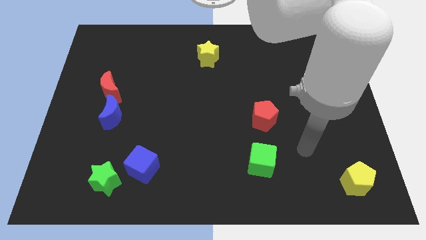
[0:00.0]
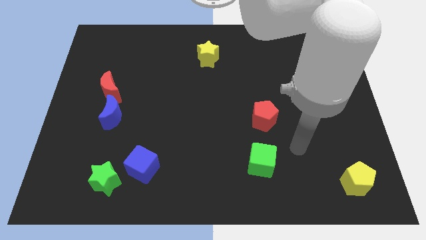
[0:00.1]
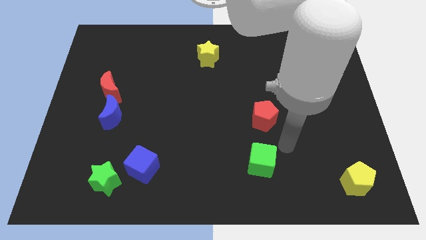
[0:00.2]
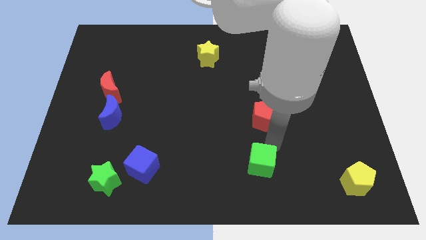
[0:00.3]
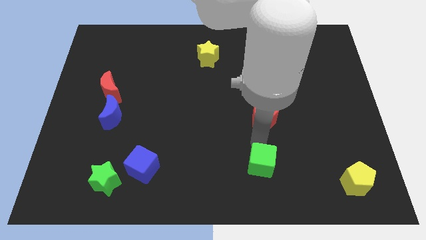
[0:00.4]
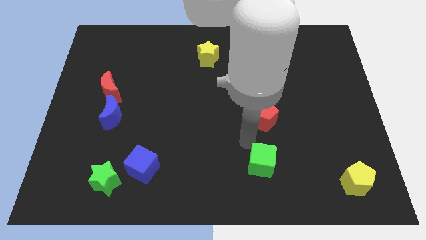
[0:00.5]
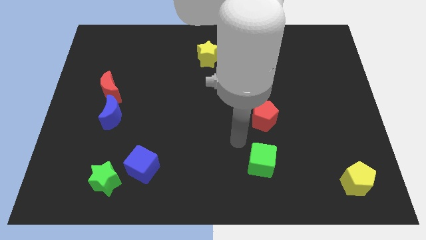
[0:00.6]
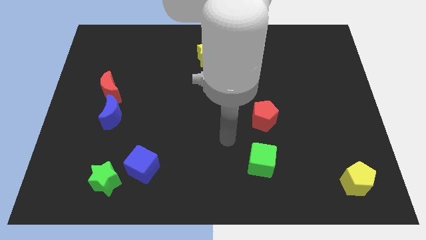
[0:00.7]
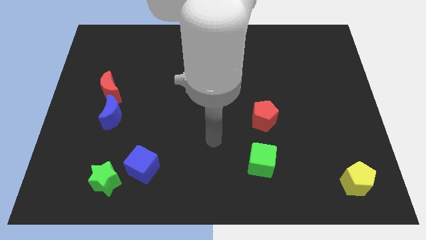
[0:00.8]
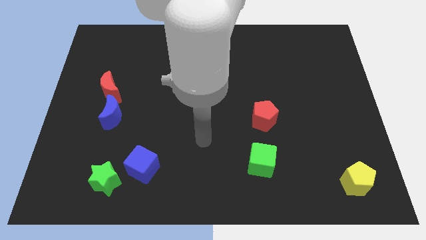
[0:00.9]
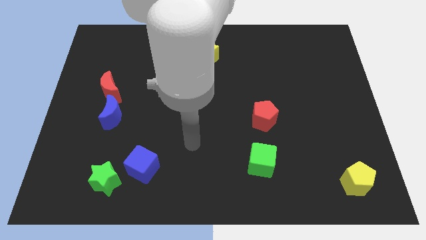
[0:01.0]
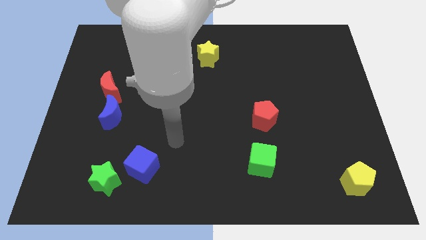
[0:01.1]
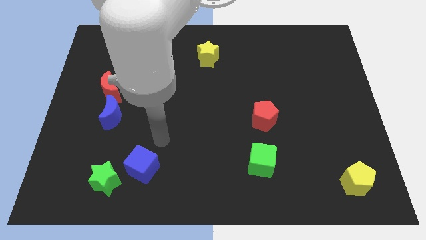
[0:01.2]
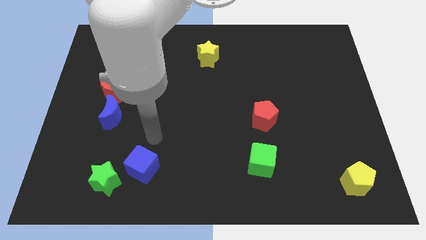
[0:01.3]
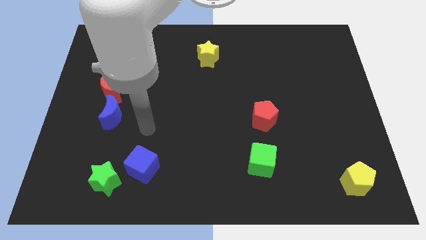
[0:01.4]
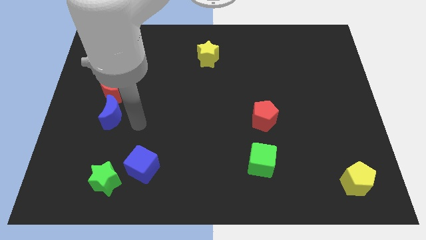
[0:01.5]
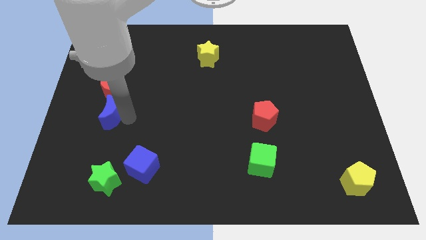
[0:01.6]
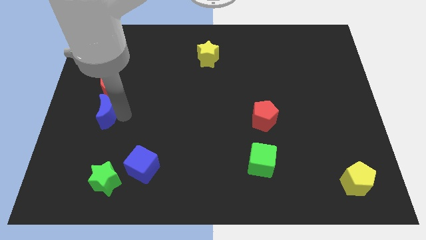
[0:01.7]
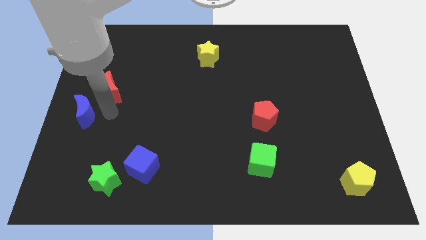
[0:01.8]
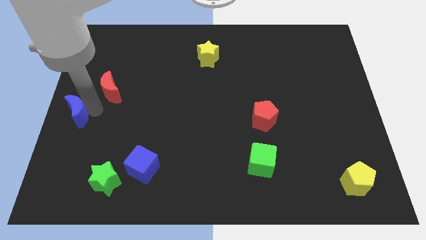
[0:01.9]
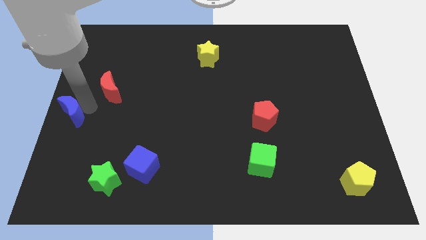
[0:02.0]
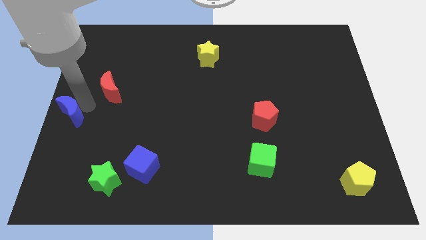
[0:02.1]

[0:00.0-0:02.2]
pull the red moon apart from the blue moon

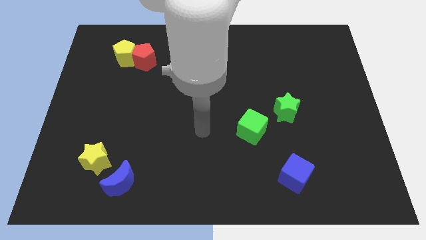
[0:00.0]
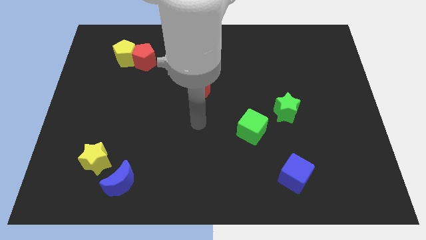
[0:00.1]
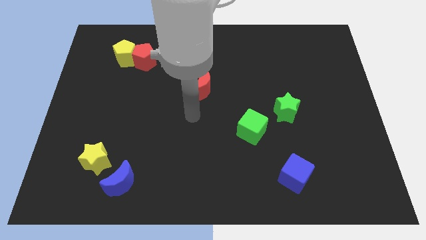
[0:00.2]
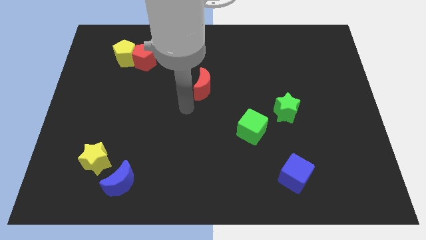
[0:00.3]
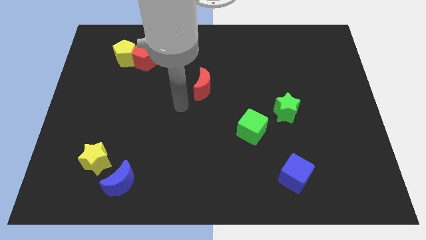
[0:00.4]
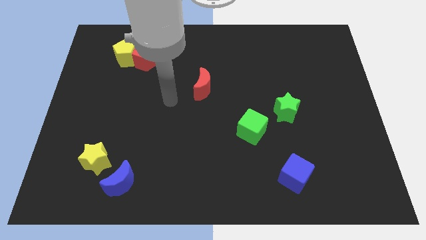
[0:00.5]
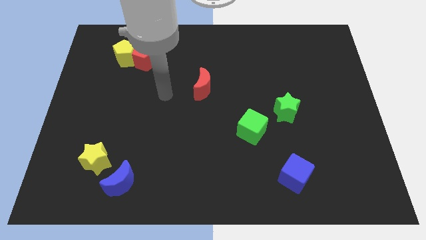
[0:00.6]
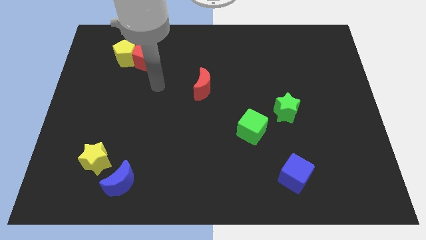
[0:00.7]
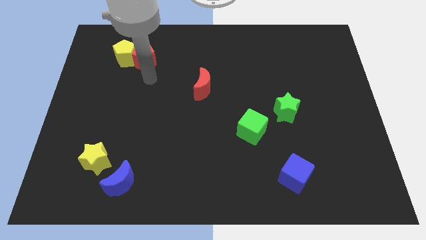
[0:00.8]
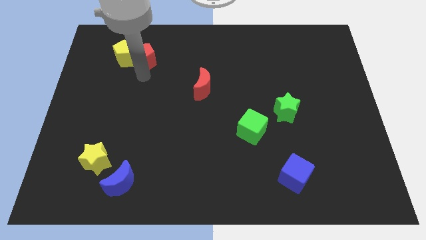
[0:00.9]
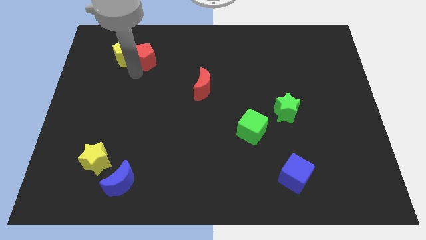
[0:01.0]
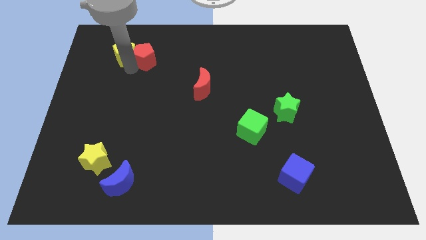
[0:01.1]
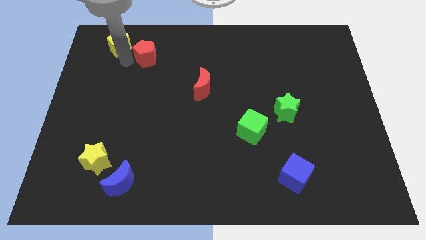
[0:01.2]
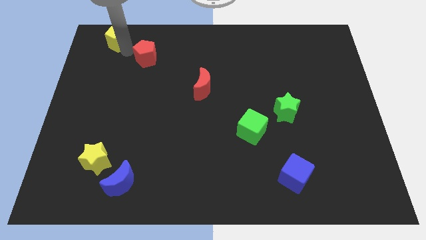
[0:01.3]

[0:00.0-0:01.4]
pull the red pentagon apart from the yellow pentagon

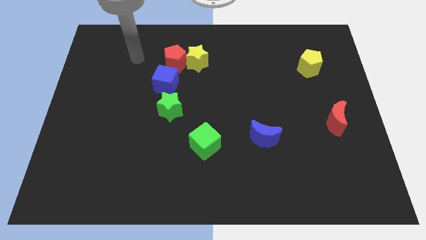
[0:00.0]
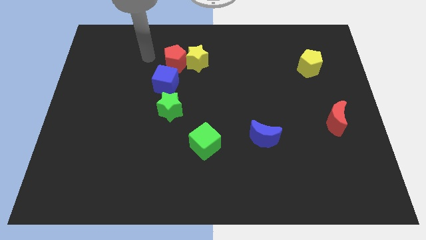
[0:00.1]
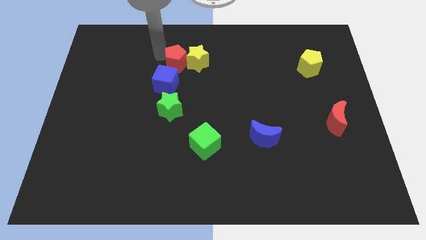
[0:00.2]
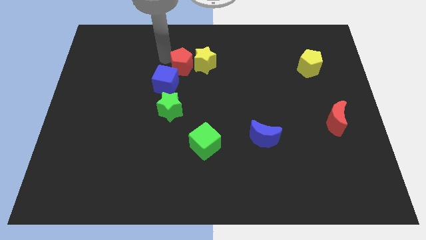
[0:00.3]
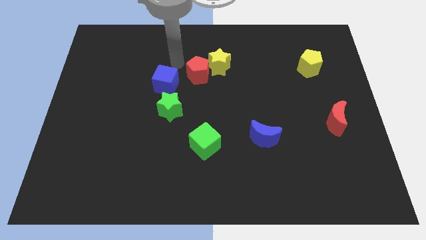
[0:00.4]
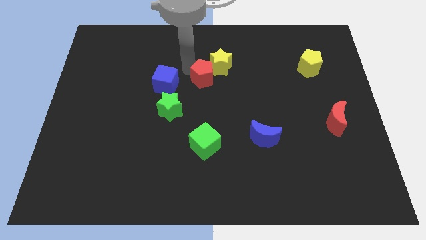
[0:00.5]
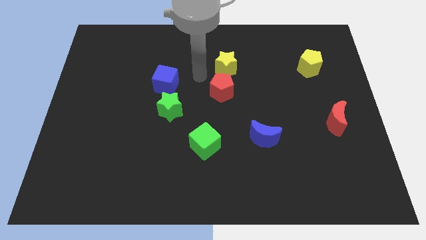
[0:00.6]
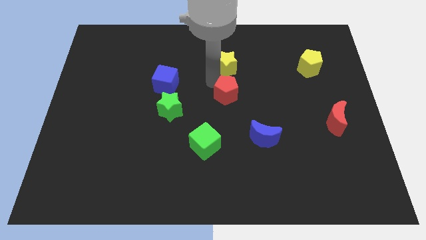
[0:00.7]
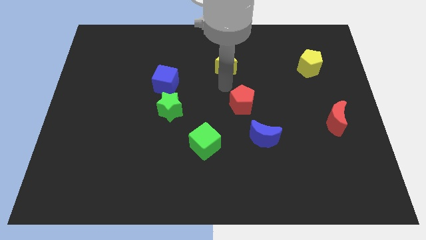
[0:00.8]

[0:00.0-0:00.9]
pull the yellow star apart from the red pentagon

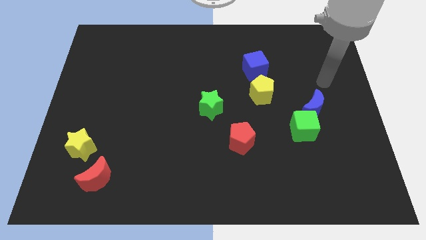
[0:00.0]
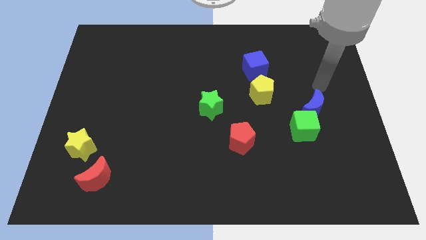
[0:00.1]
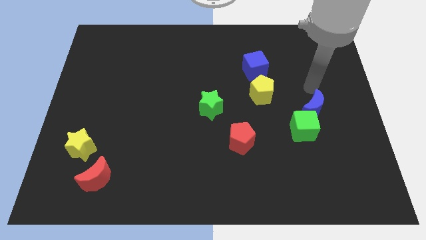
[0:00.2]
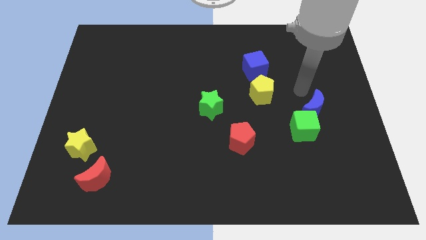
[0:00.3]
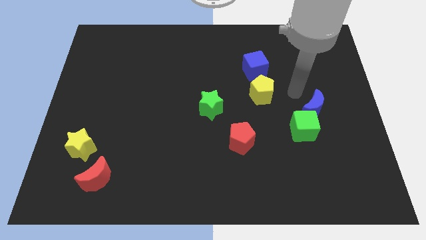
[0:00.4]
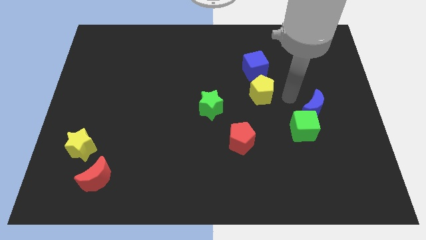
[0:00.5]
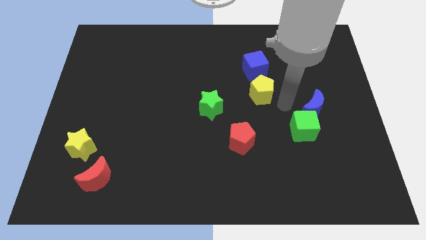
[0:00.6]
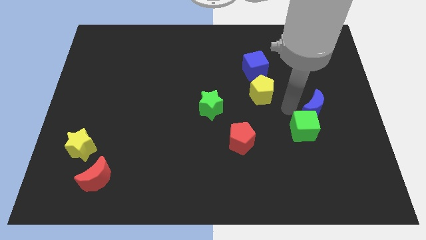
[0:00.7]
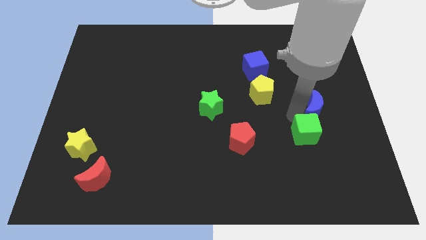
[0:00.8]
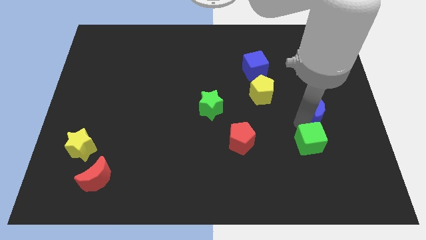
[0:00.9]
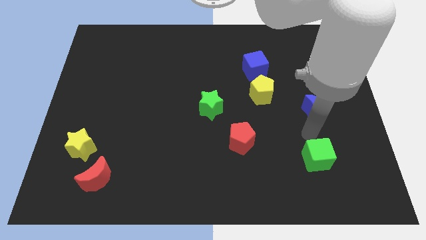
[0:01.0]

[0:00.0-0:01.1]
separate the blue moon from the green cube

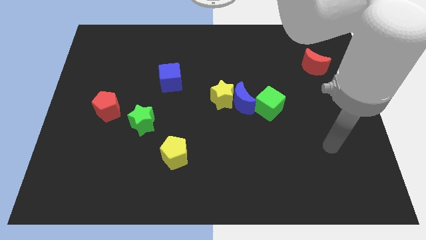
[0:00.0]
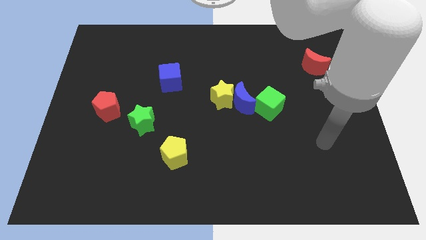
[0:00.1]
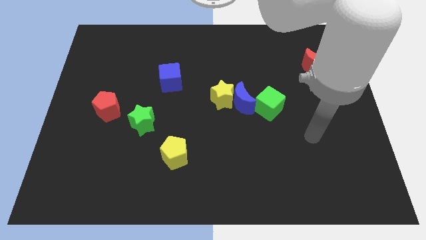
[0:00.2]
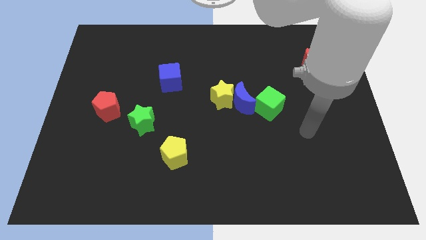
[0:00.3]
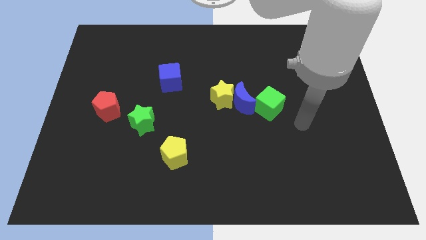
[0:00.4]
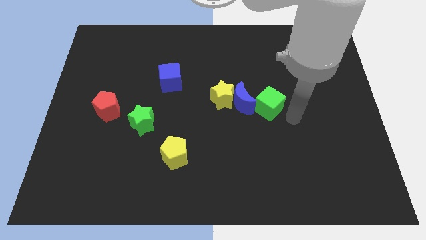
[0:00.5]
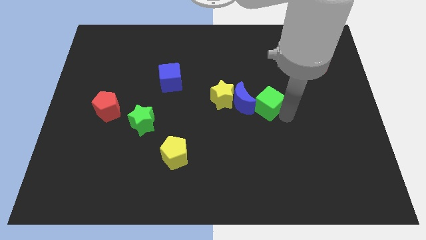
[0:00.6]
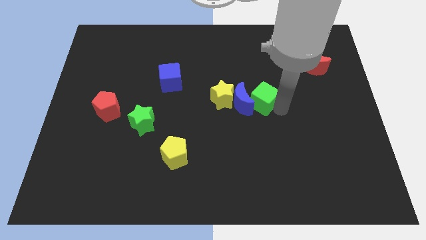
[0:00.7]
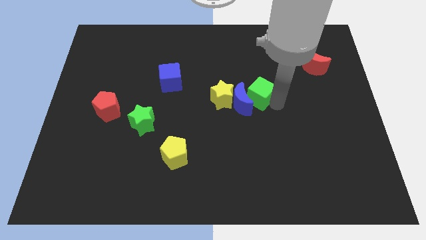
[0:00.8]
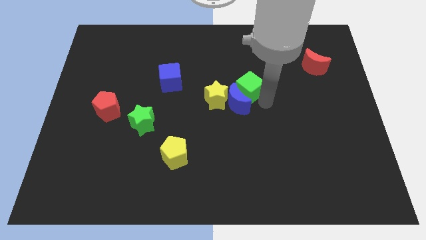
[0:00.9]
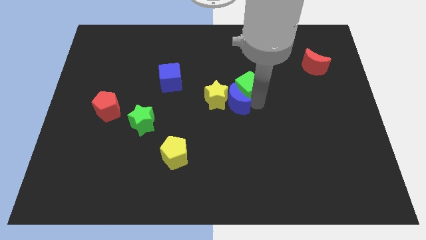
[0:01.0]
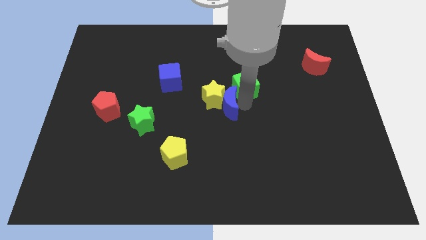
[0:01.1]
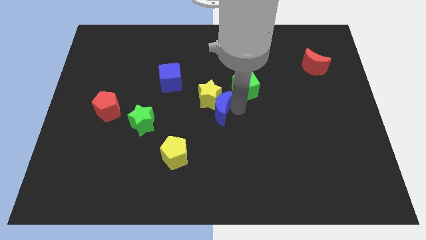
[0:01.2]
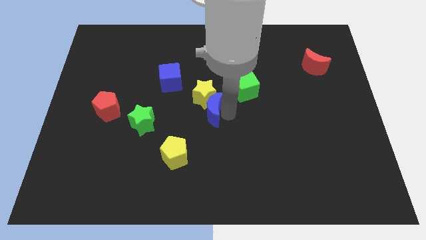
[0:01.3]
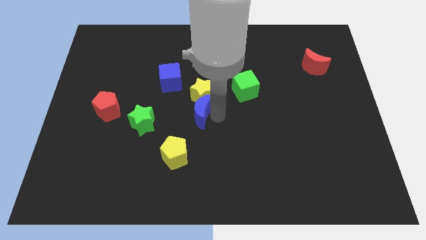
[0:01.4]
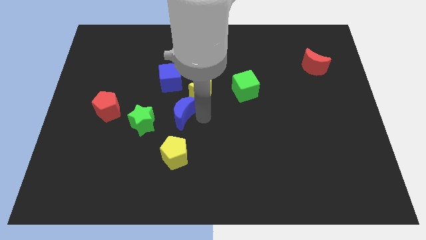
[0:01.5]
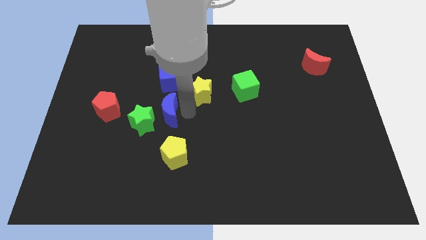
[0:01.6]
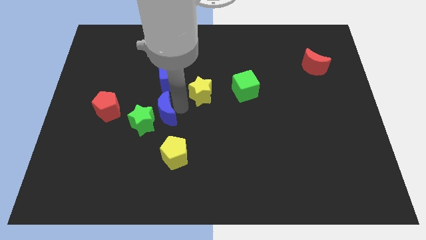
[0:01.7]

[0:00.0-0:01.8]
pull the yellow star apart from the blue moon

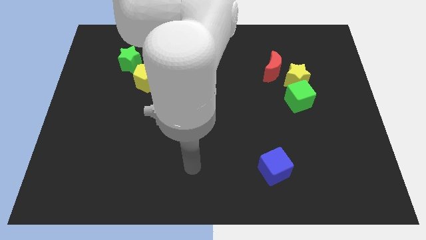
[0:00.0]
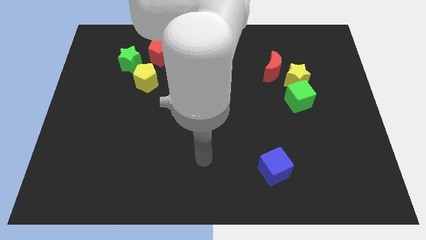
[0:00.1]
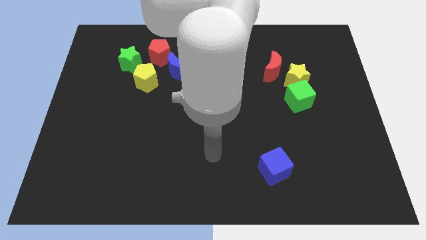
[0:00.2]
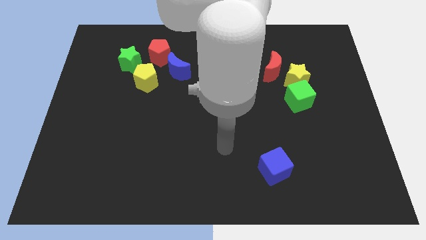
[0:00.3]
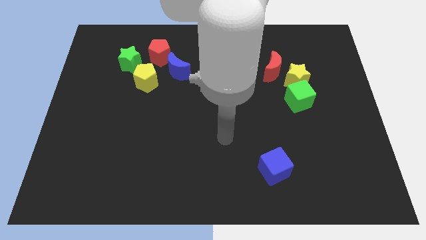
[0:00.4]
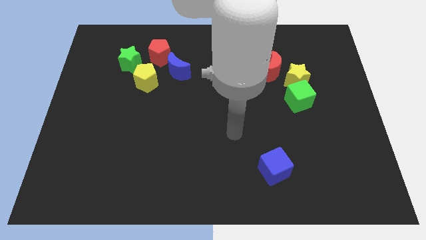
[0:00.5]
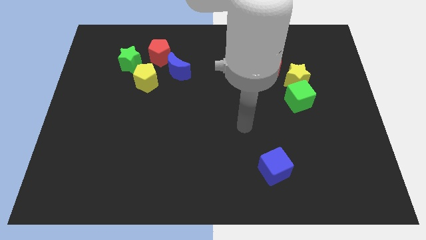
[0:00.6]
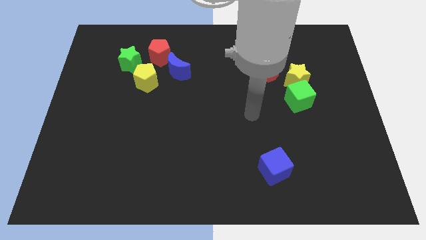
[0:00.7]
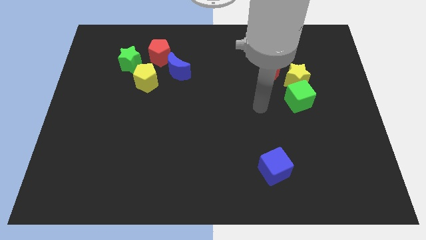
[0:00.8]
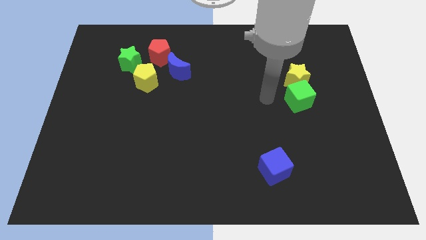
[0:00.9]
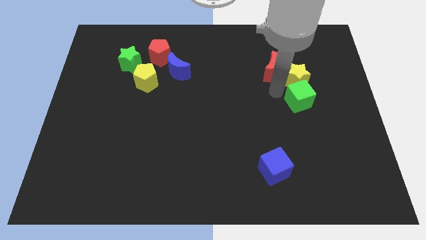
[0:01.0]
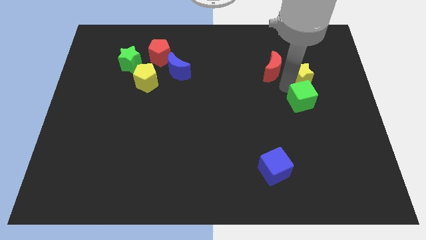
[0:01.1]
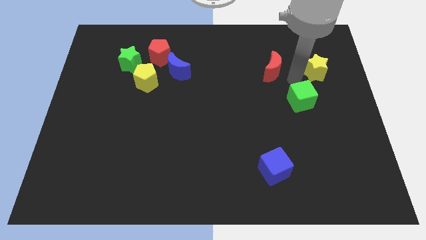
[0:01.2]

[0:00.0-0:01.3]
move the green cube away from the yellow star

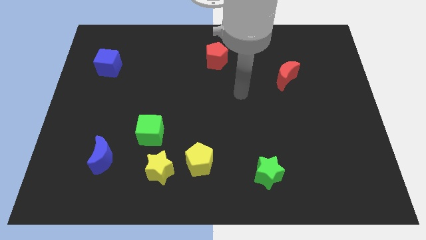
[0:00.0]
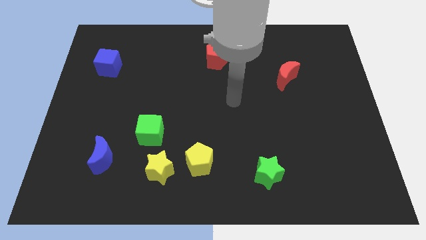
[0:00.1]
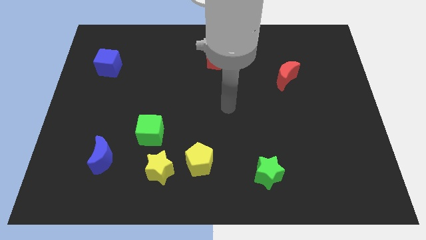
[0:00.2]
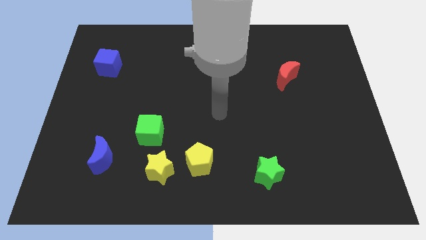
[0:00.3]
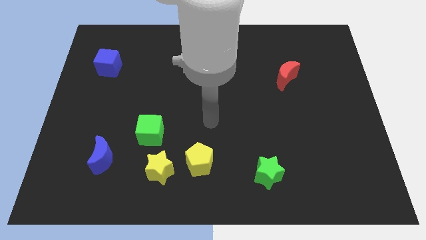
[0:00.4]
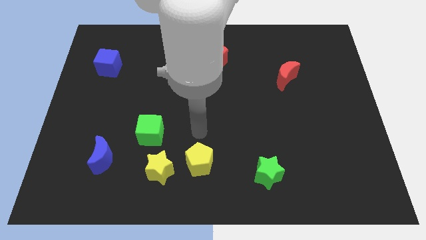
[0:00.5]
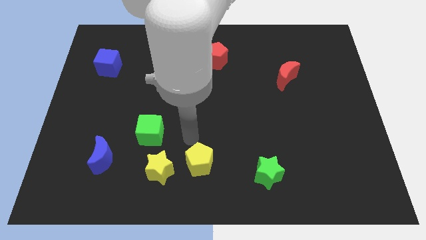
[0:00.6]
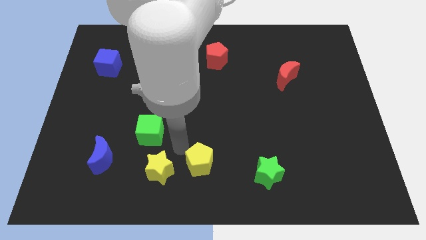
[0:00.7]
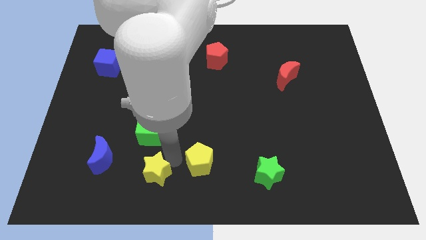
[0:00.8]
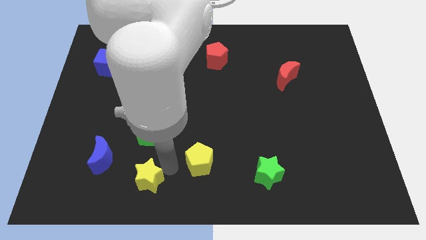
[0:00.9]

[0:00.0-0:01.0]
separate the yellow pentagon from the yellow star
